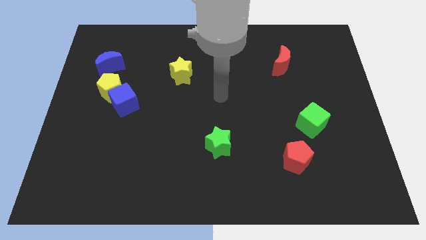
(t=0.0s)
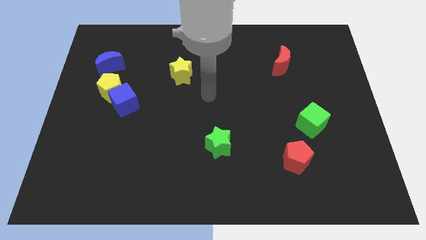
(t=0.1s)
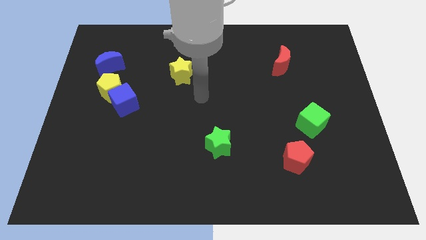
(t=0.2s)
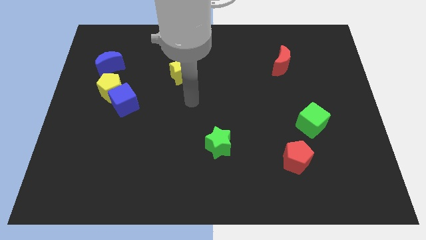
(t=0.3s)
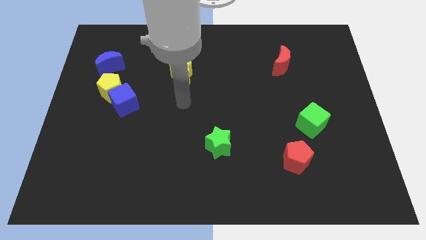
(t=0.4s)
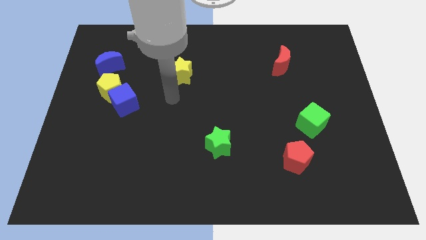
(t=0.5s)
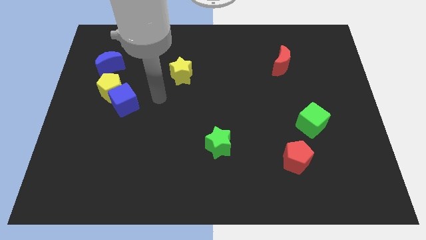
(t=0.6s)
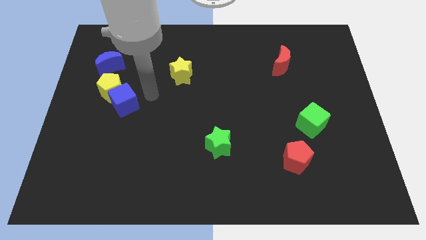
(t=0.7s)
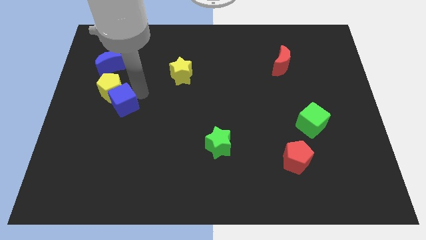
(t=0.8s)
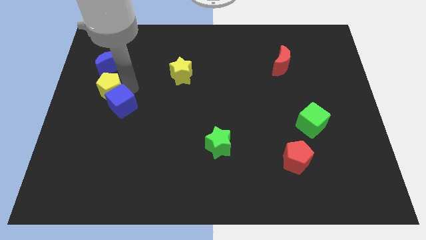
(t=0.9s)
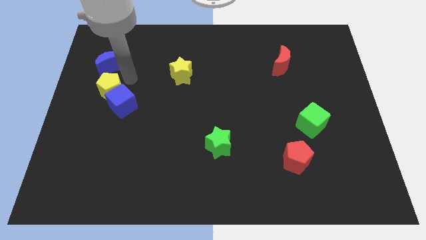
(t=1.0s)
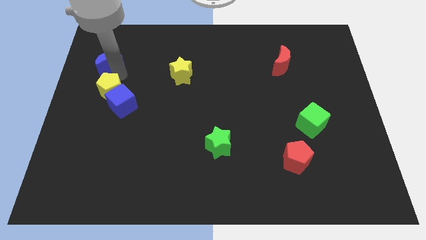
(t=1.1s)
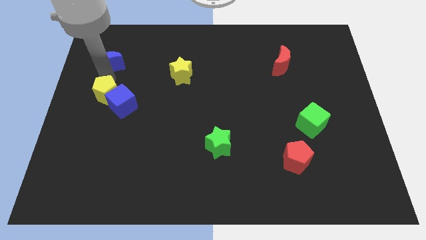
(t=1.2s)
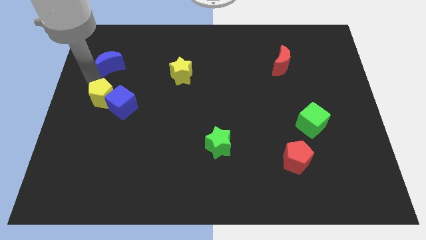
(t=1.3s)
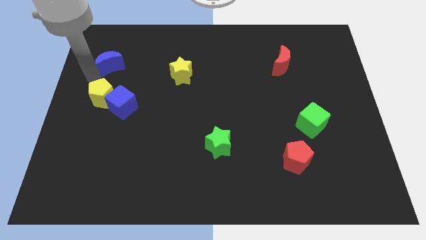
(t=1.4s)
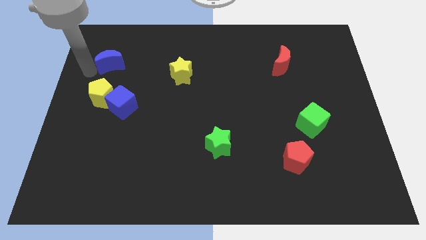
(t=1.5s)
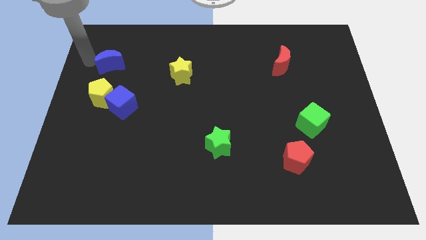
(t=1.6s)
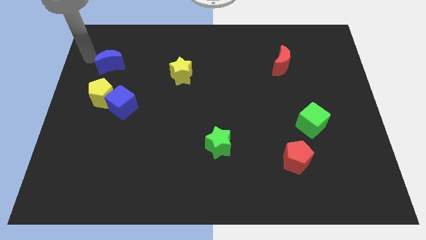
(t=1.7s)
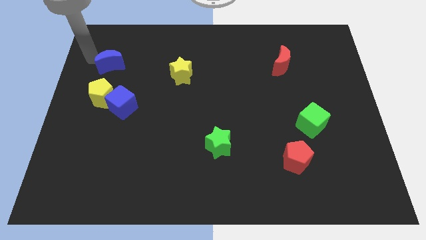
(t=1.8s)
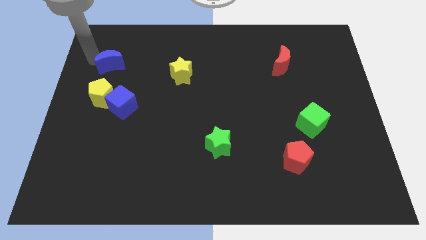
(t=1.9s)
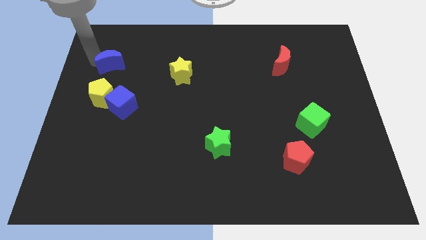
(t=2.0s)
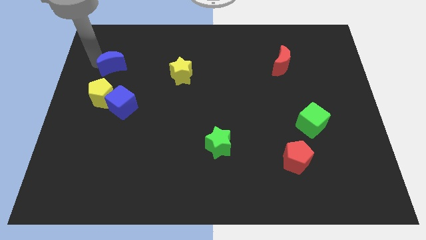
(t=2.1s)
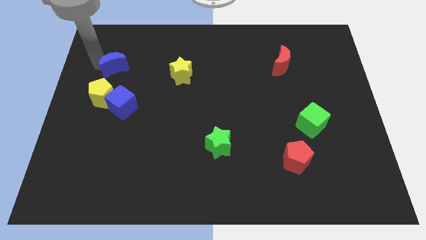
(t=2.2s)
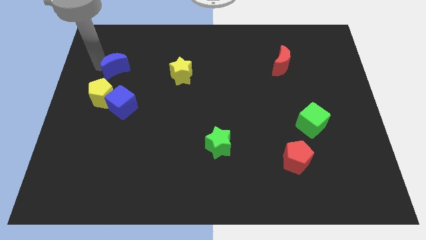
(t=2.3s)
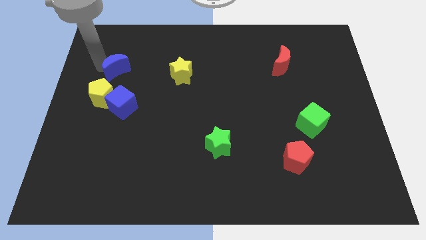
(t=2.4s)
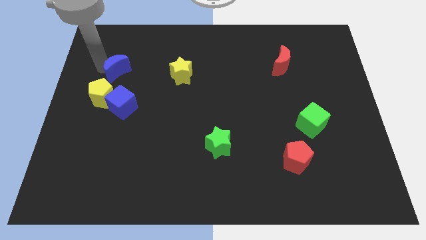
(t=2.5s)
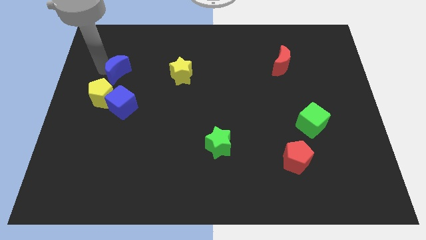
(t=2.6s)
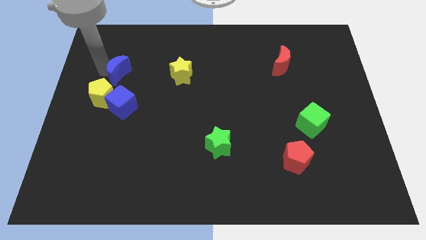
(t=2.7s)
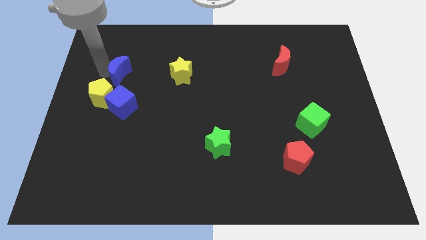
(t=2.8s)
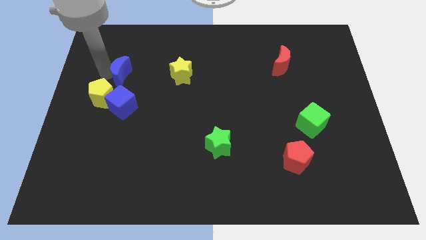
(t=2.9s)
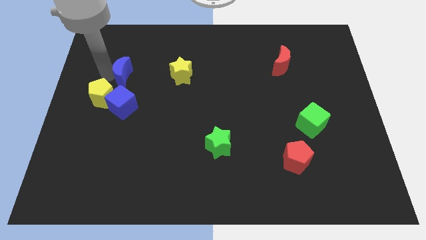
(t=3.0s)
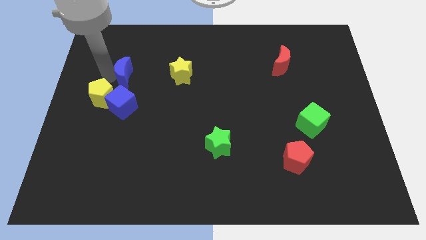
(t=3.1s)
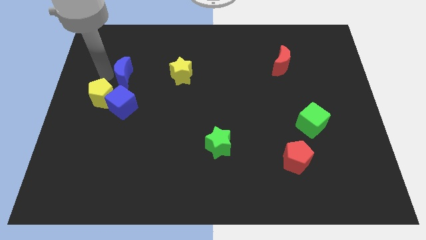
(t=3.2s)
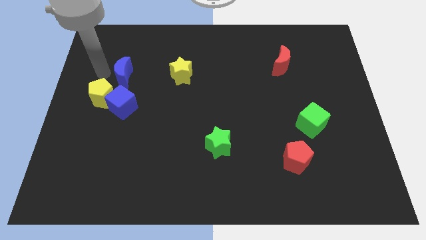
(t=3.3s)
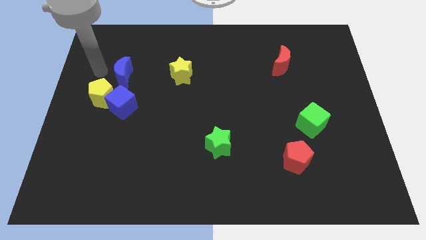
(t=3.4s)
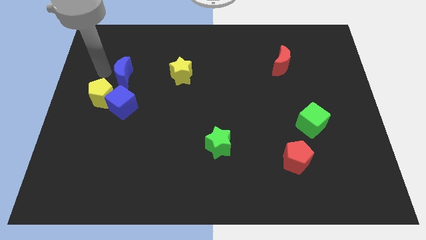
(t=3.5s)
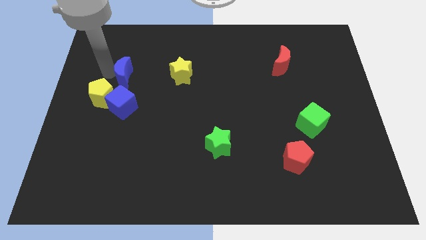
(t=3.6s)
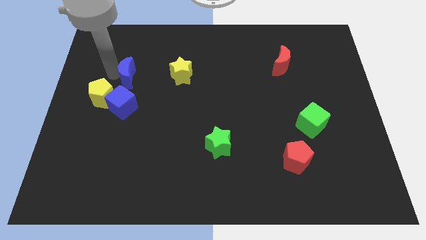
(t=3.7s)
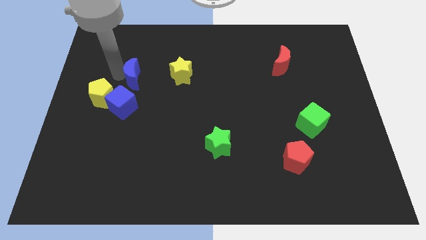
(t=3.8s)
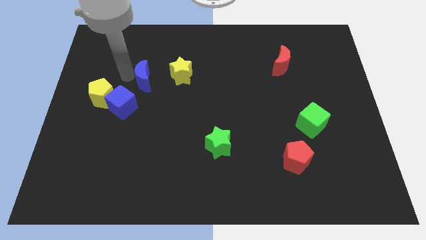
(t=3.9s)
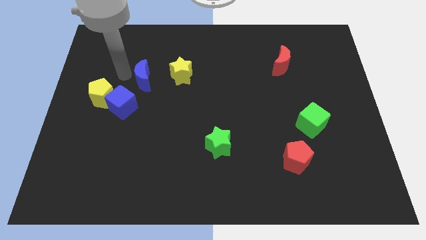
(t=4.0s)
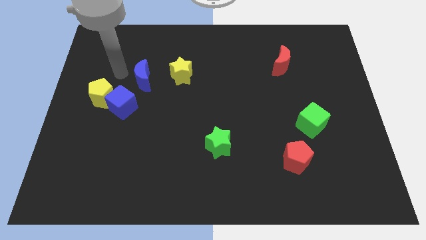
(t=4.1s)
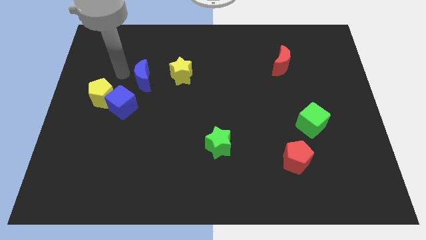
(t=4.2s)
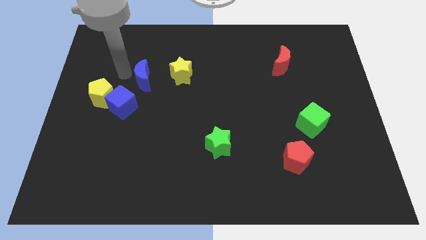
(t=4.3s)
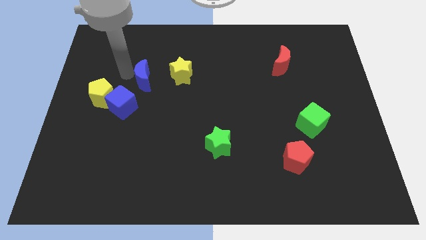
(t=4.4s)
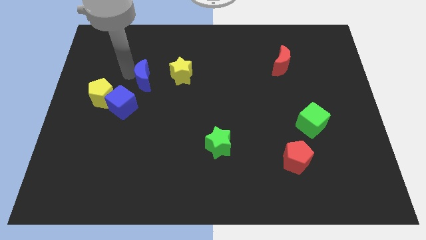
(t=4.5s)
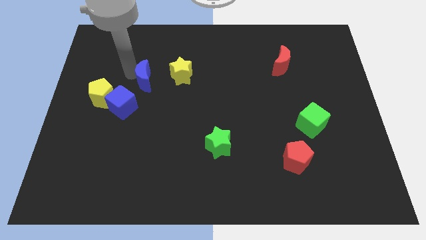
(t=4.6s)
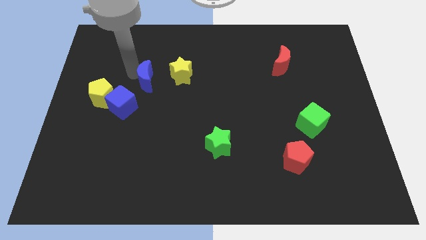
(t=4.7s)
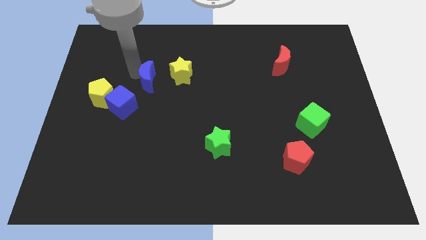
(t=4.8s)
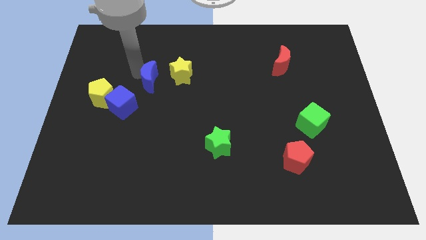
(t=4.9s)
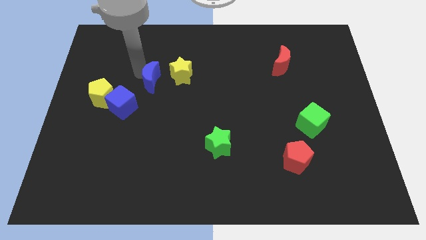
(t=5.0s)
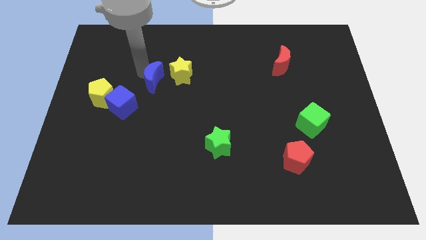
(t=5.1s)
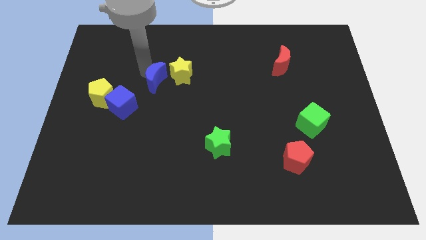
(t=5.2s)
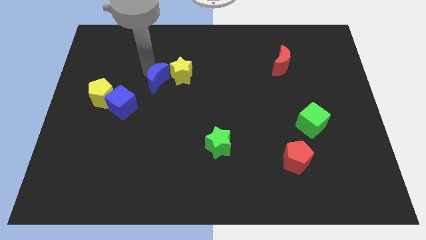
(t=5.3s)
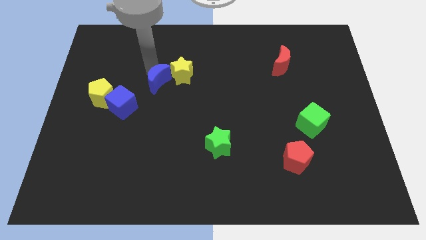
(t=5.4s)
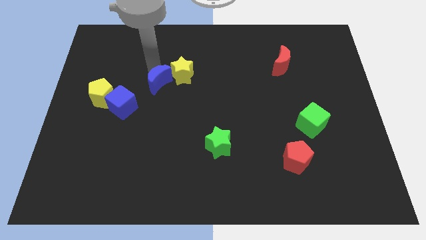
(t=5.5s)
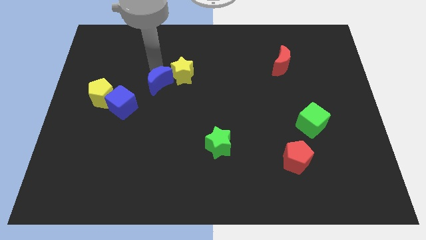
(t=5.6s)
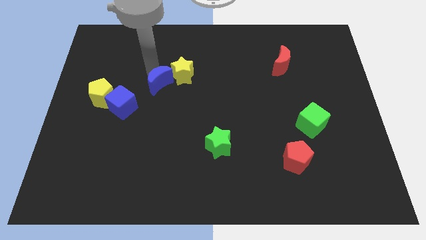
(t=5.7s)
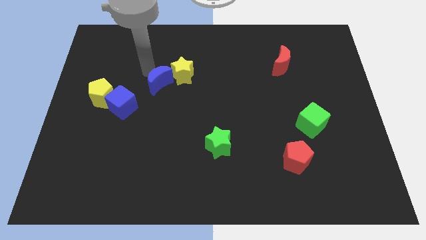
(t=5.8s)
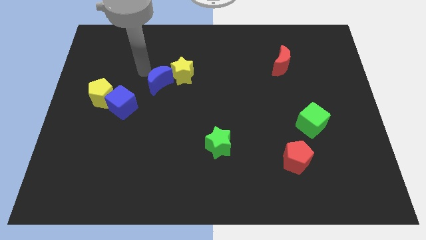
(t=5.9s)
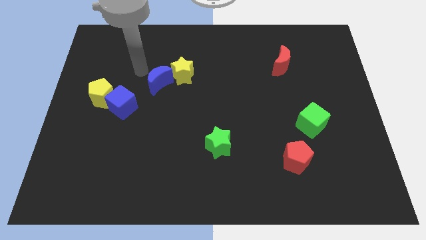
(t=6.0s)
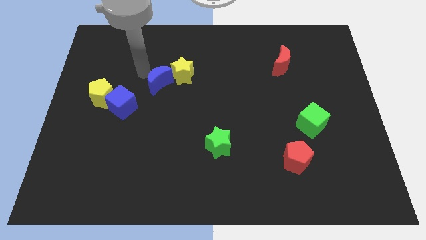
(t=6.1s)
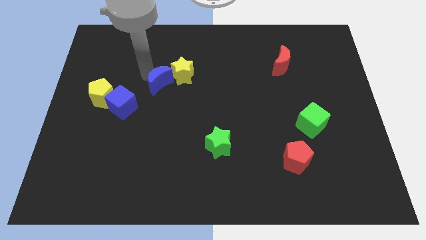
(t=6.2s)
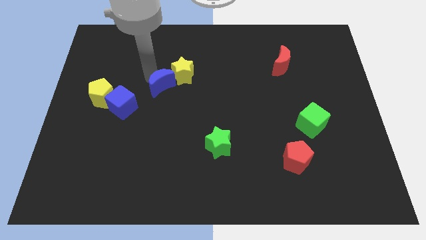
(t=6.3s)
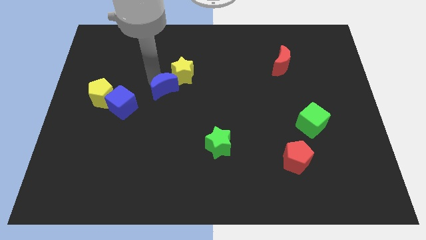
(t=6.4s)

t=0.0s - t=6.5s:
move the blue moon to the middle of the board
